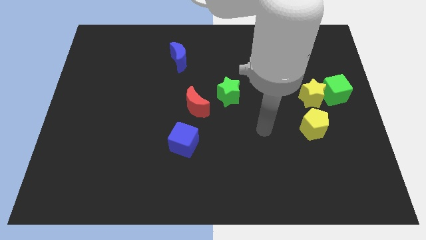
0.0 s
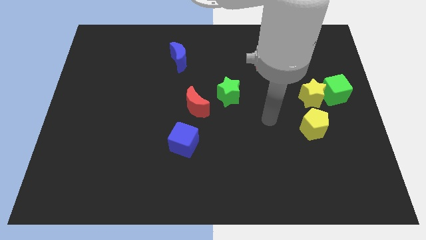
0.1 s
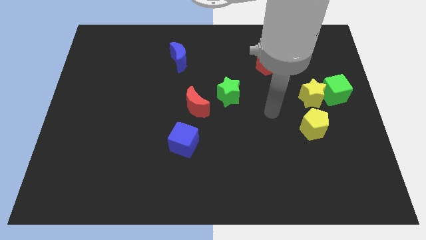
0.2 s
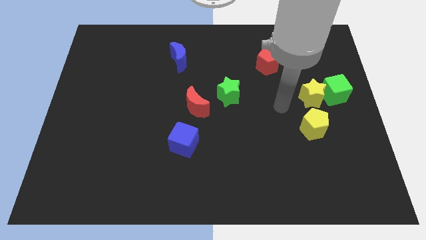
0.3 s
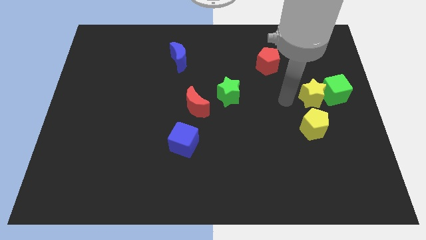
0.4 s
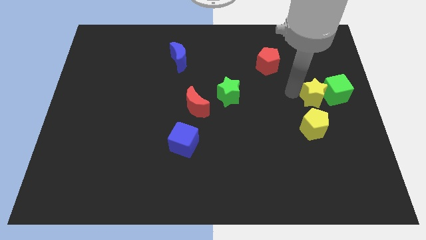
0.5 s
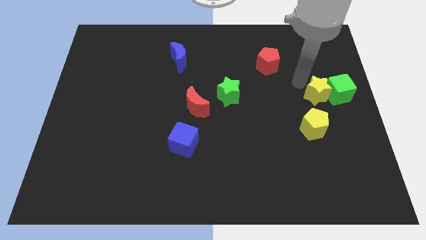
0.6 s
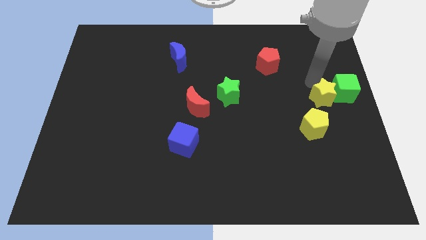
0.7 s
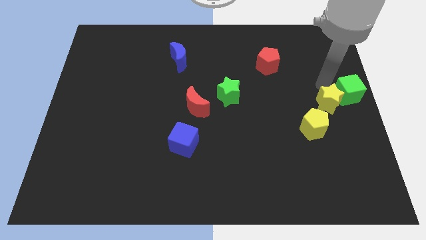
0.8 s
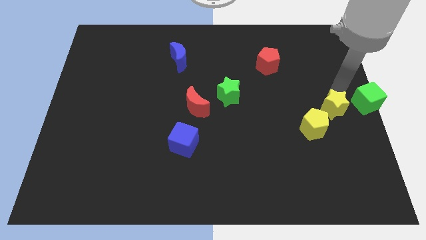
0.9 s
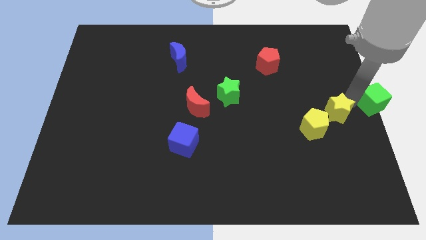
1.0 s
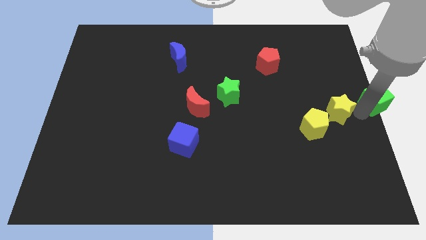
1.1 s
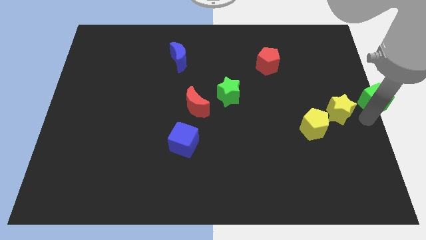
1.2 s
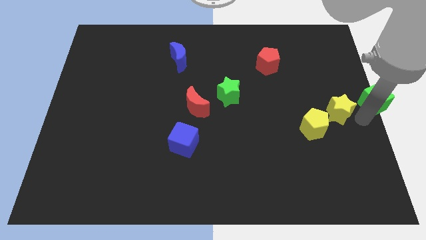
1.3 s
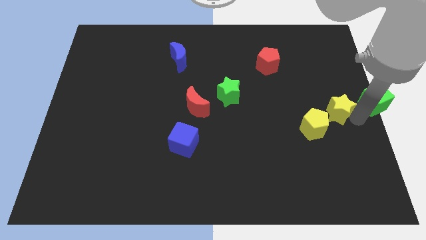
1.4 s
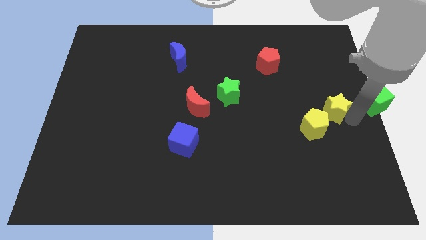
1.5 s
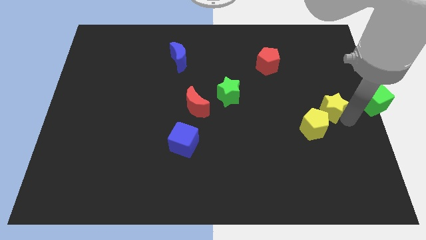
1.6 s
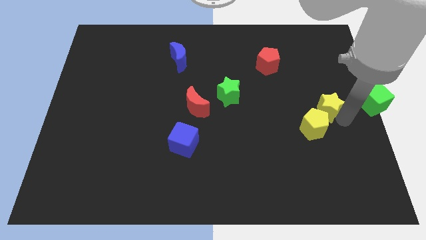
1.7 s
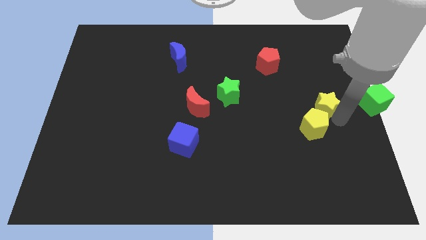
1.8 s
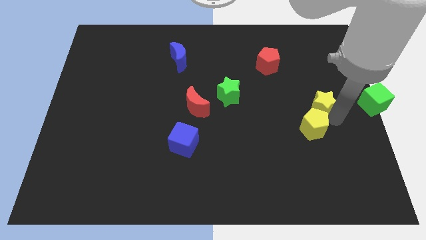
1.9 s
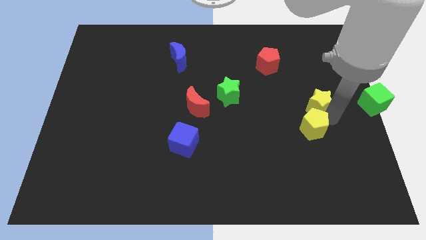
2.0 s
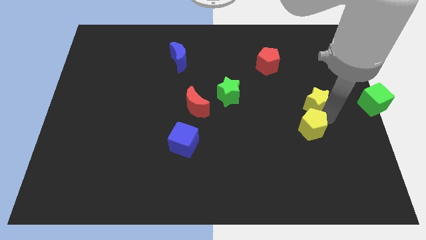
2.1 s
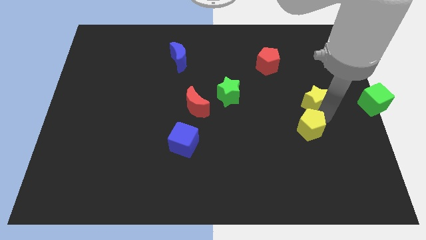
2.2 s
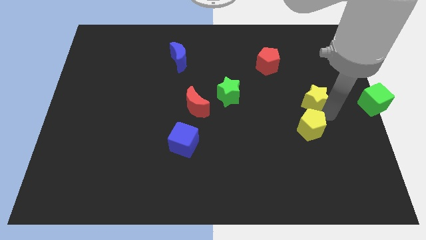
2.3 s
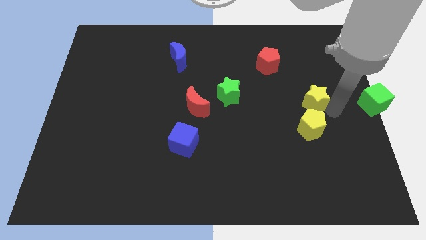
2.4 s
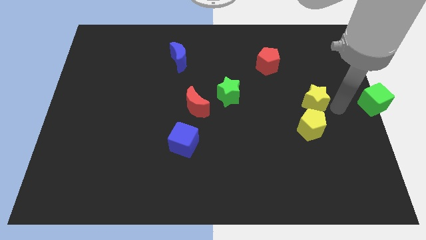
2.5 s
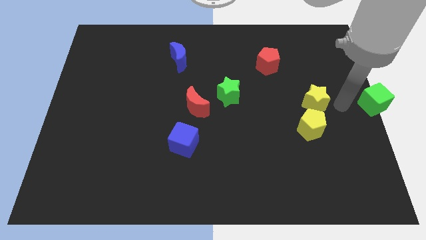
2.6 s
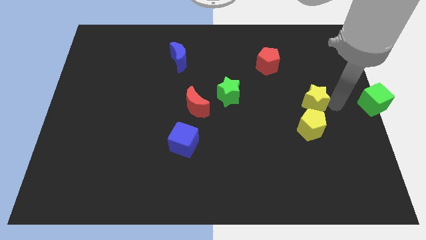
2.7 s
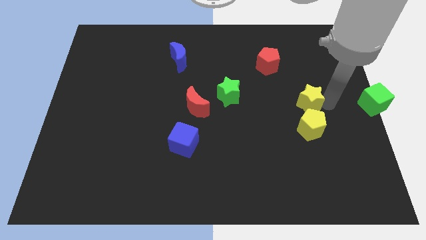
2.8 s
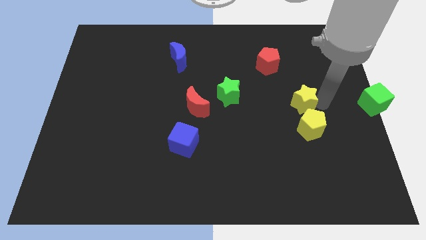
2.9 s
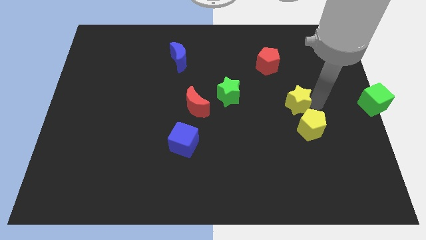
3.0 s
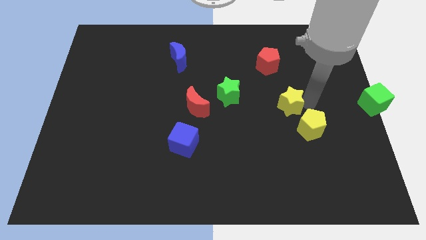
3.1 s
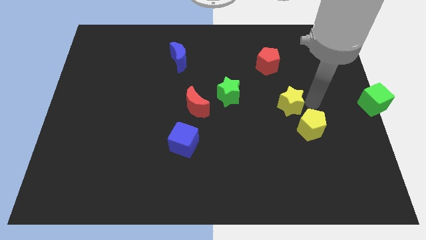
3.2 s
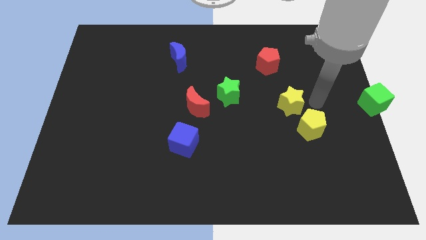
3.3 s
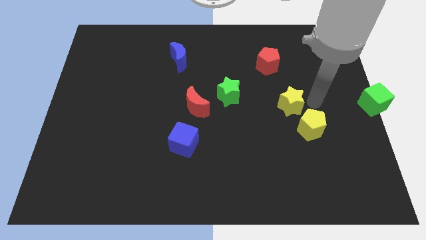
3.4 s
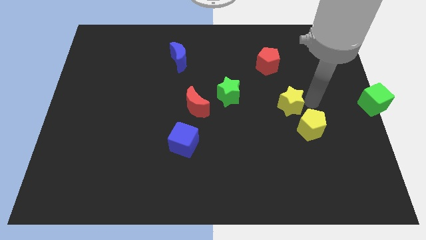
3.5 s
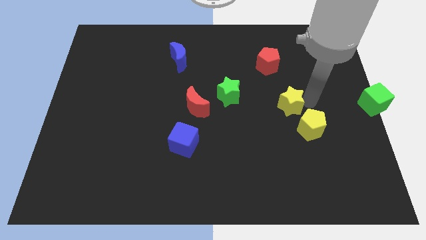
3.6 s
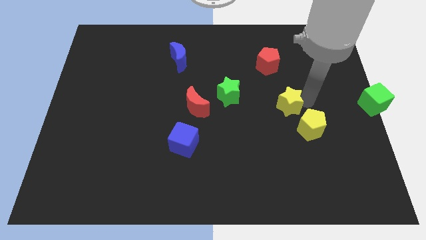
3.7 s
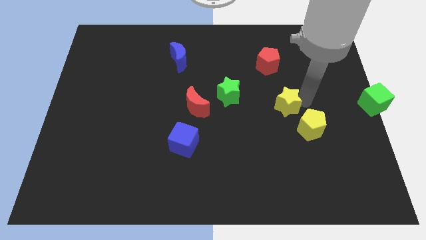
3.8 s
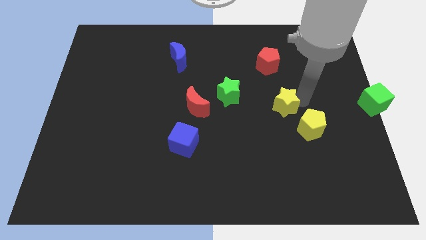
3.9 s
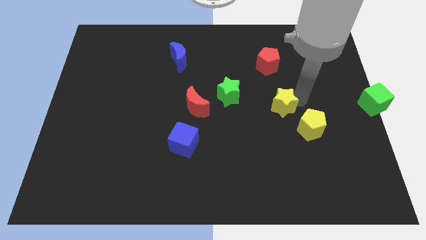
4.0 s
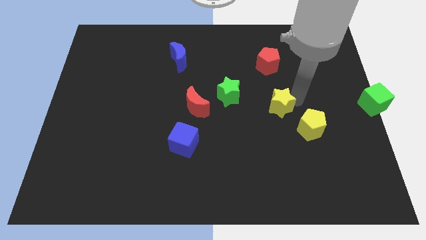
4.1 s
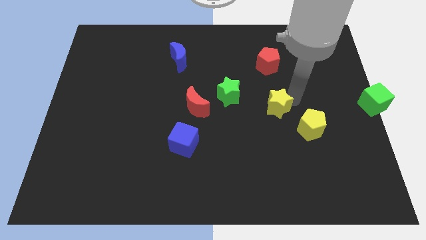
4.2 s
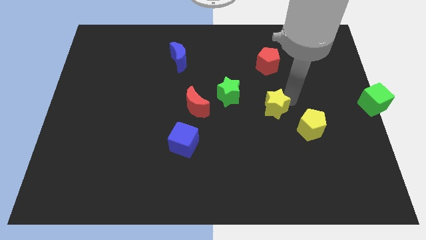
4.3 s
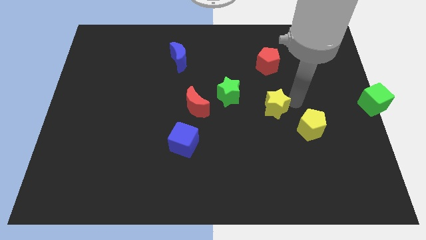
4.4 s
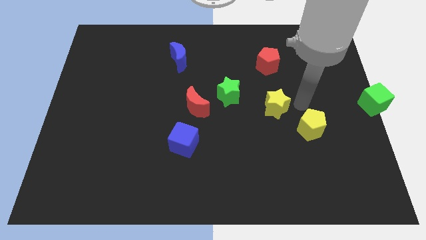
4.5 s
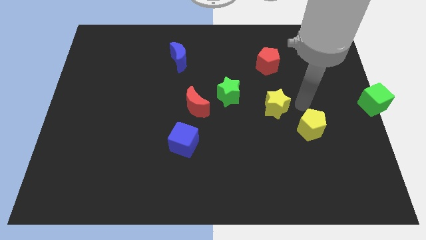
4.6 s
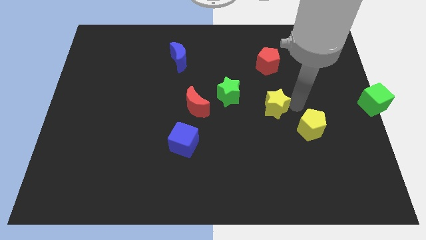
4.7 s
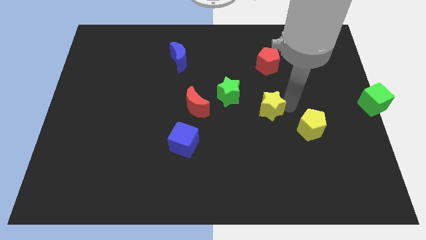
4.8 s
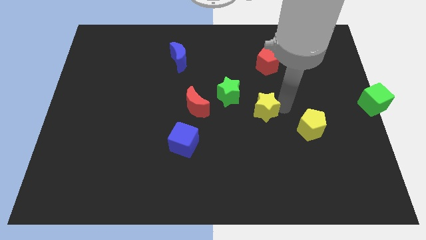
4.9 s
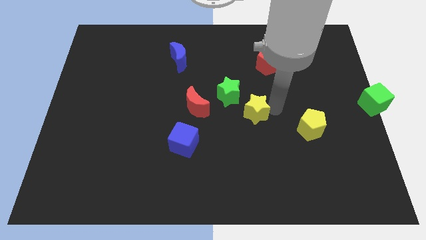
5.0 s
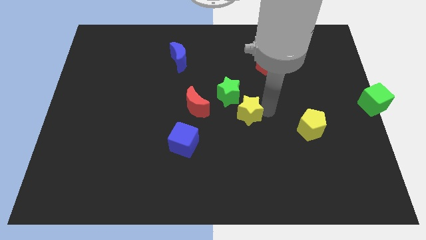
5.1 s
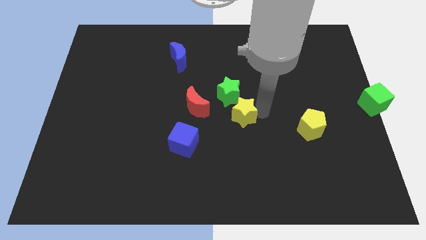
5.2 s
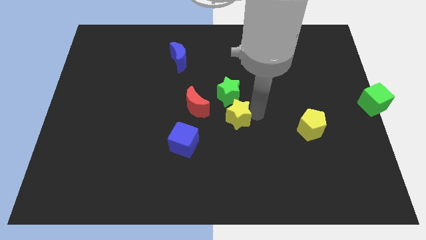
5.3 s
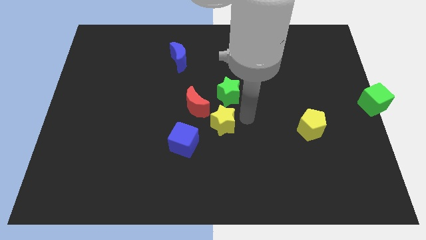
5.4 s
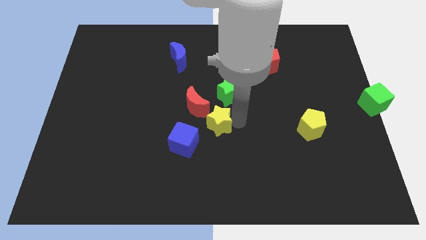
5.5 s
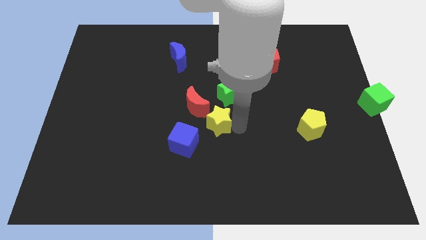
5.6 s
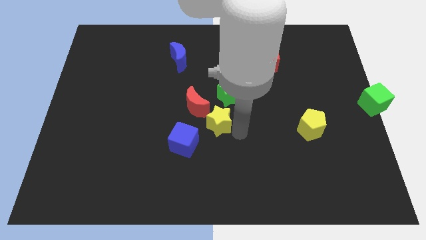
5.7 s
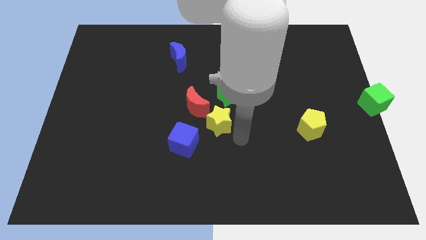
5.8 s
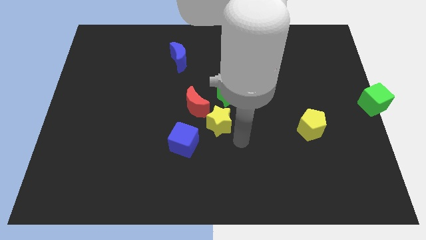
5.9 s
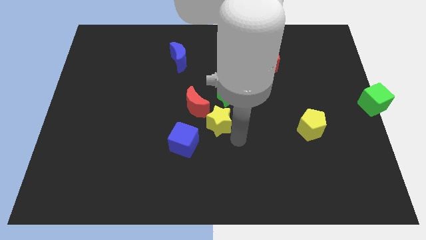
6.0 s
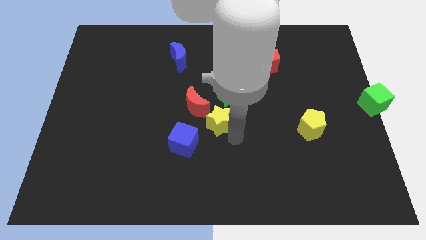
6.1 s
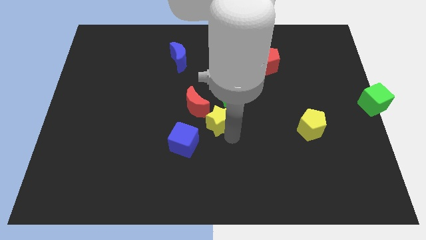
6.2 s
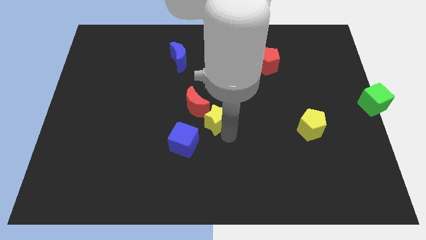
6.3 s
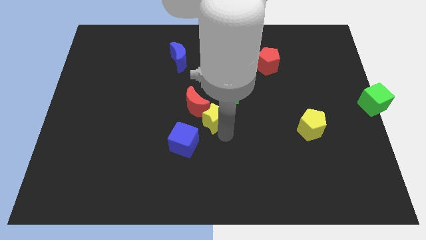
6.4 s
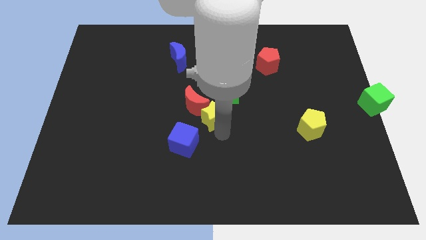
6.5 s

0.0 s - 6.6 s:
push the yellow star towards the red moon

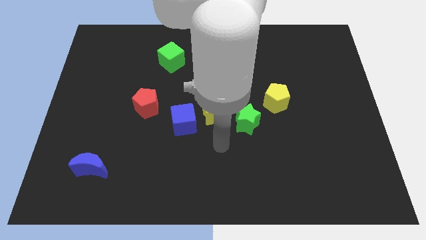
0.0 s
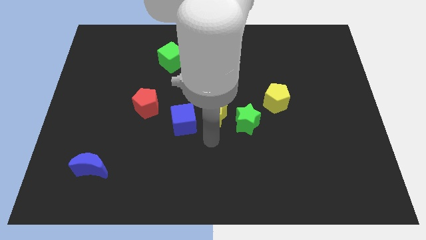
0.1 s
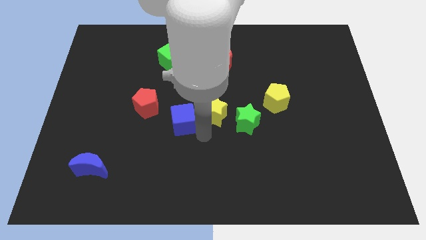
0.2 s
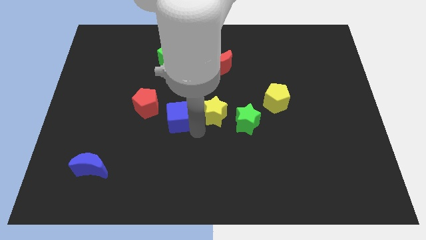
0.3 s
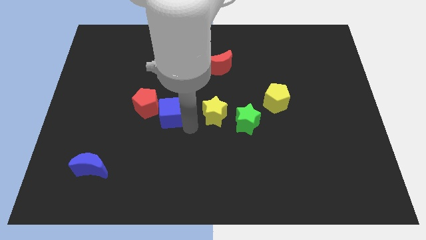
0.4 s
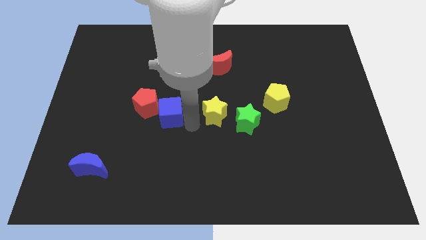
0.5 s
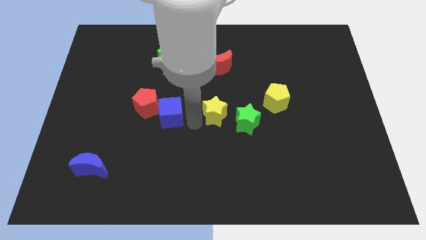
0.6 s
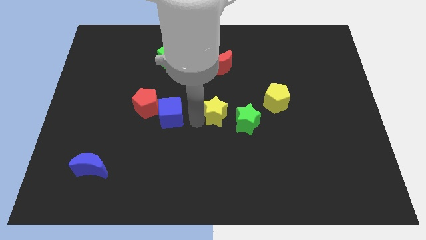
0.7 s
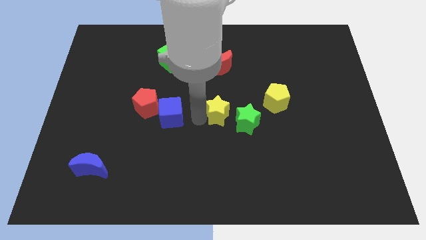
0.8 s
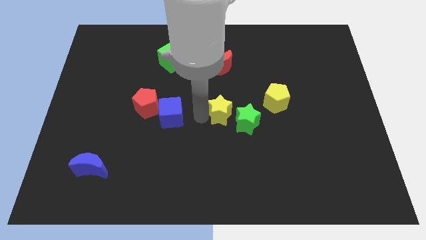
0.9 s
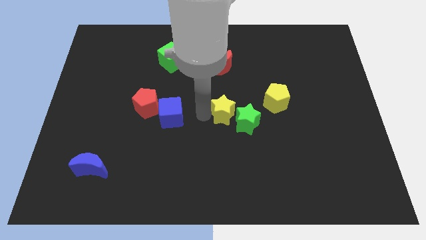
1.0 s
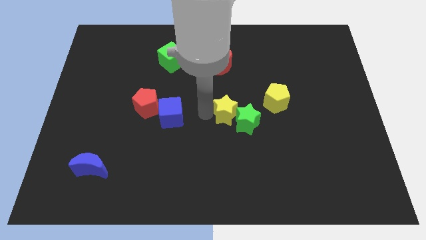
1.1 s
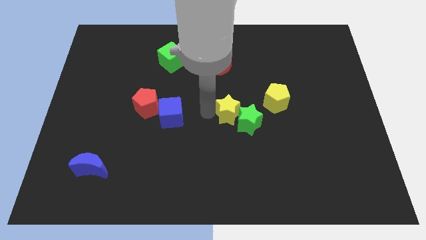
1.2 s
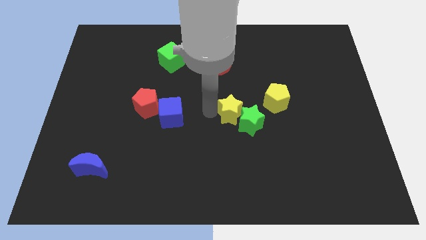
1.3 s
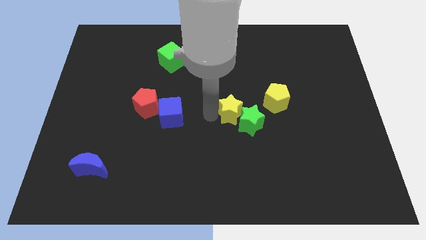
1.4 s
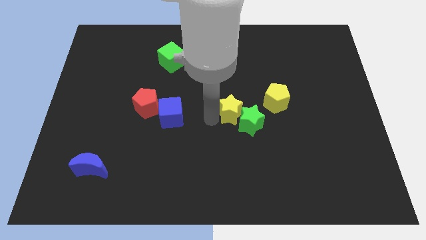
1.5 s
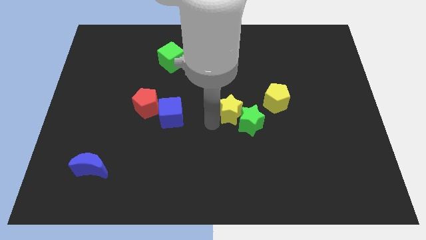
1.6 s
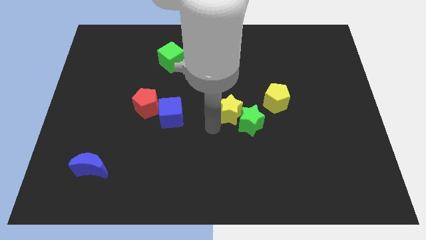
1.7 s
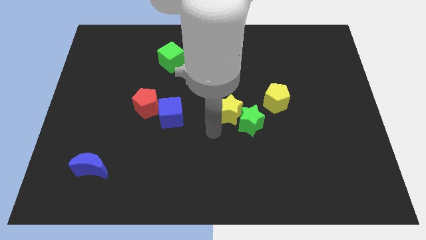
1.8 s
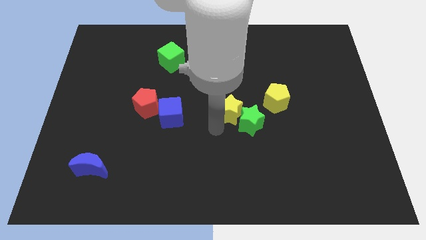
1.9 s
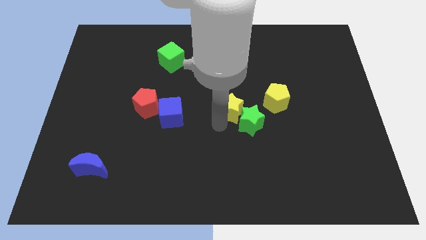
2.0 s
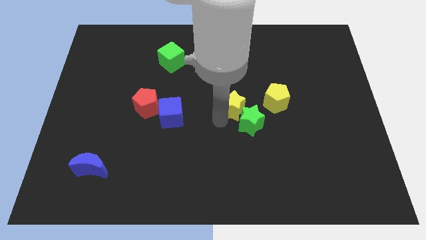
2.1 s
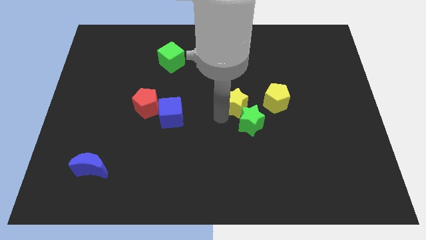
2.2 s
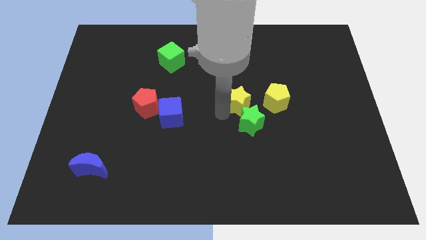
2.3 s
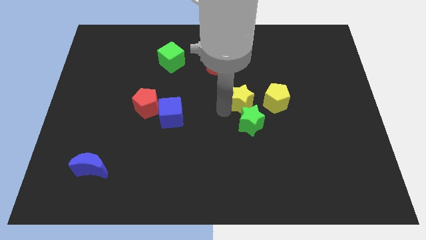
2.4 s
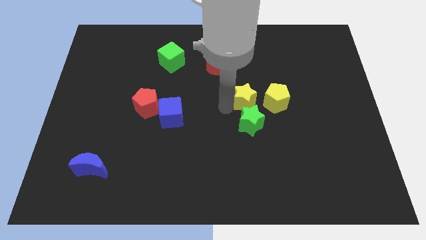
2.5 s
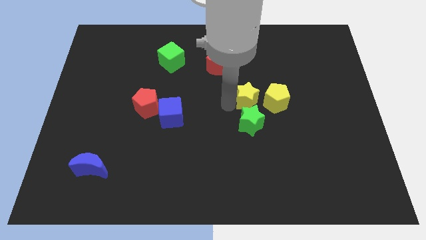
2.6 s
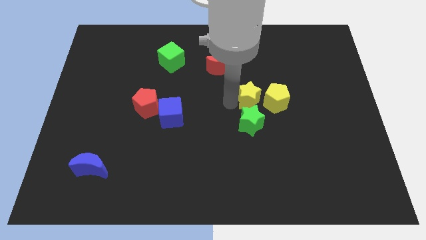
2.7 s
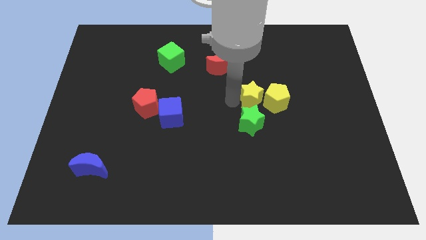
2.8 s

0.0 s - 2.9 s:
put the yellow star towards the yellow pentagon
